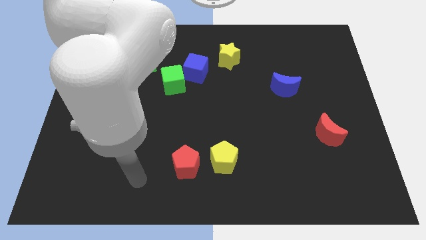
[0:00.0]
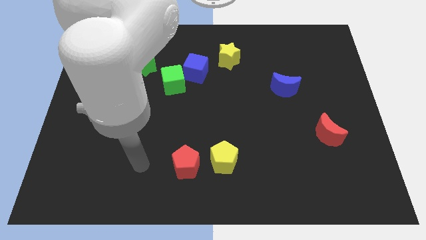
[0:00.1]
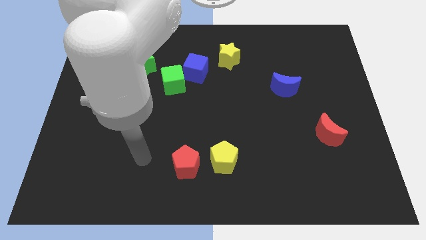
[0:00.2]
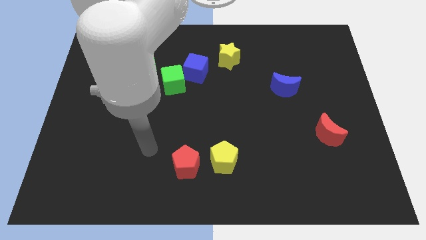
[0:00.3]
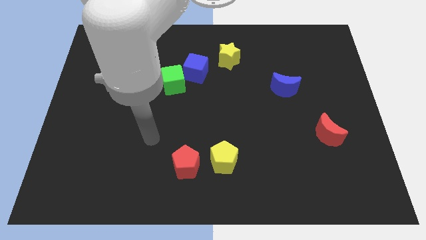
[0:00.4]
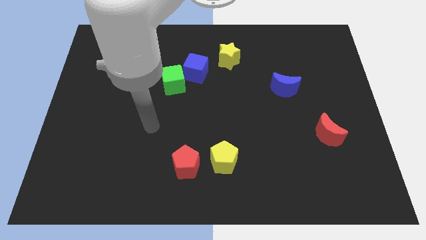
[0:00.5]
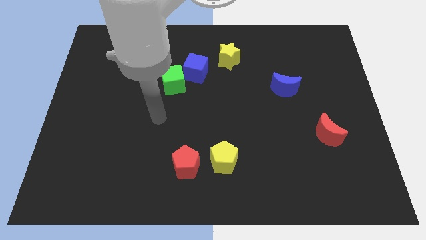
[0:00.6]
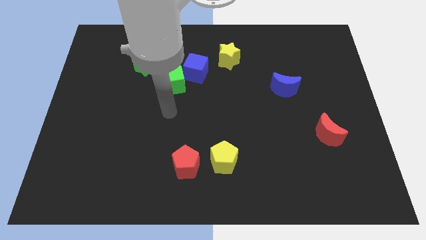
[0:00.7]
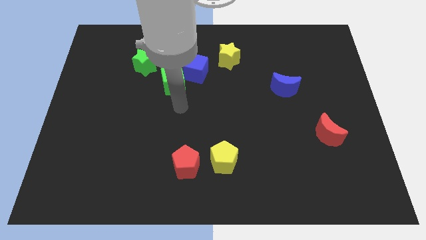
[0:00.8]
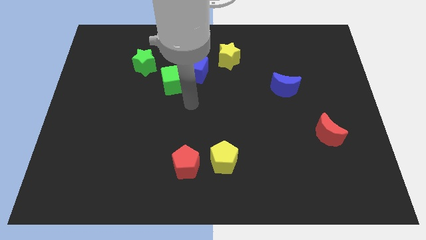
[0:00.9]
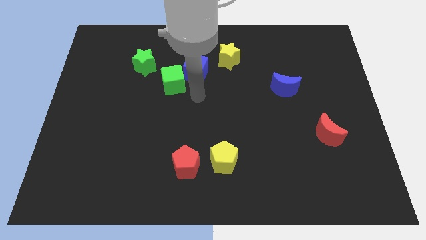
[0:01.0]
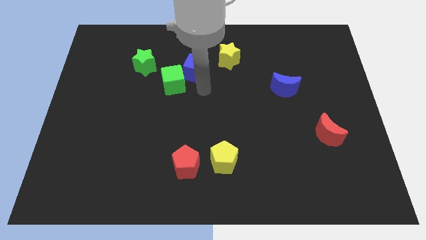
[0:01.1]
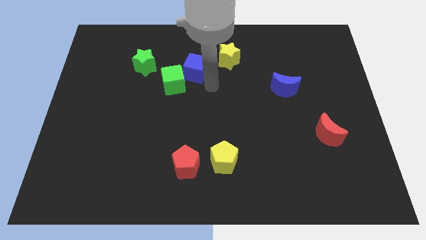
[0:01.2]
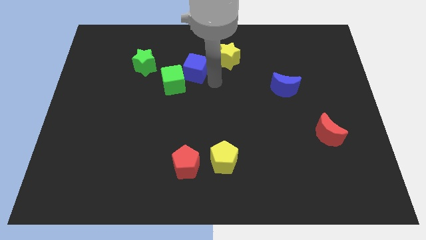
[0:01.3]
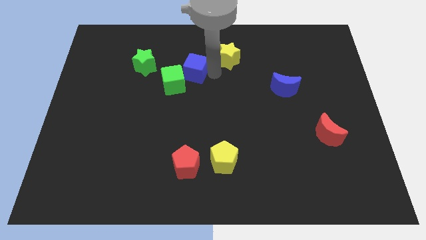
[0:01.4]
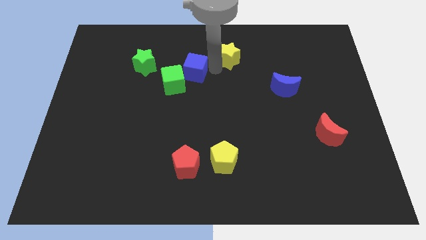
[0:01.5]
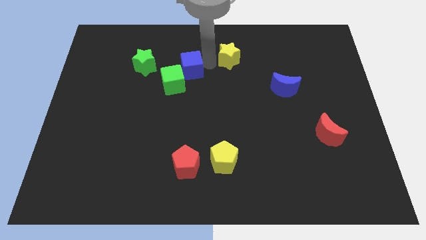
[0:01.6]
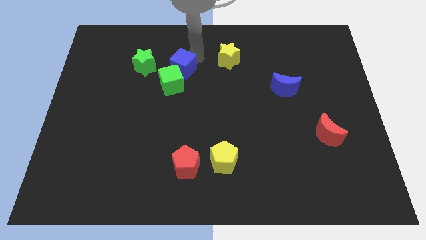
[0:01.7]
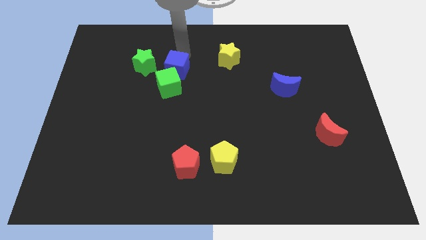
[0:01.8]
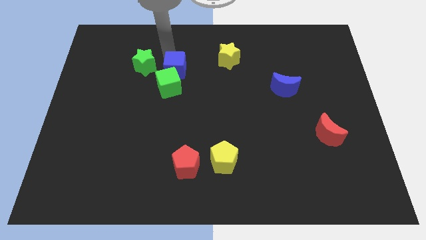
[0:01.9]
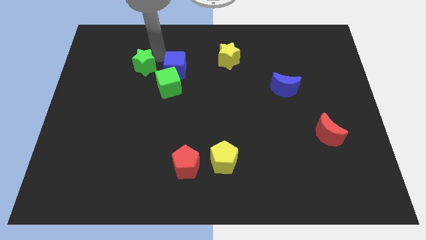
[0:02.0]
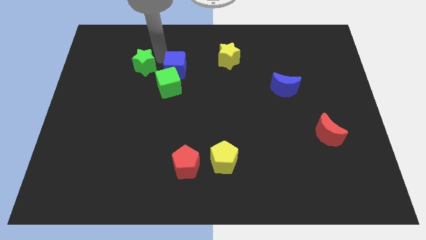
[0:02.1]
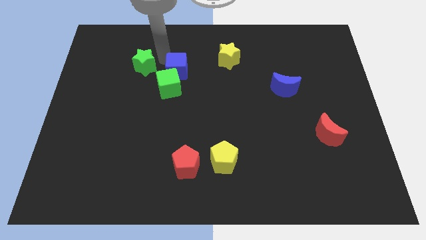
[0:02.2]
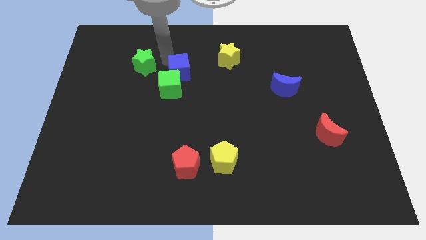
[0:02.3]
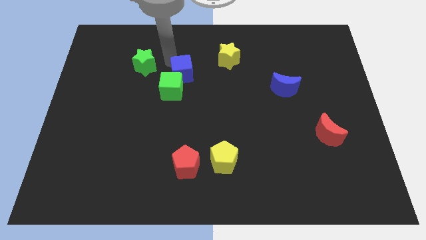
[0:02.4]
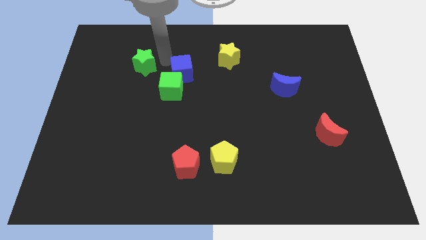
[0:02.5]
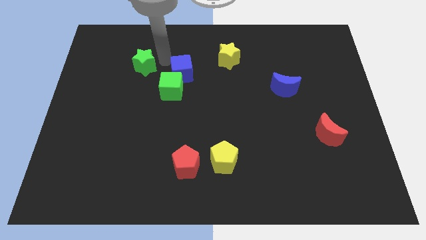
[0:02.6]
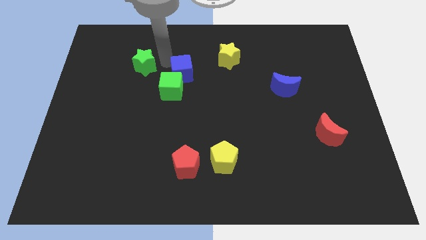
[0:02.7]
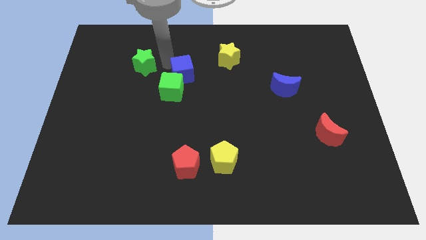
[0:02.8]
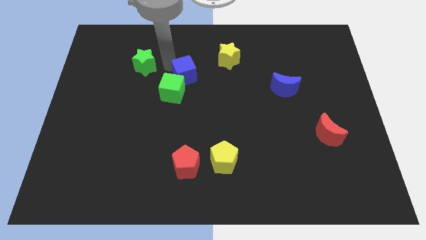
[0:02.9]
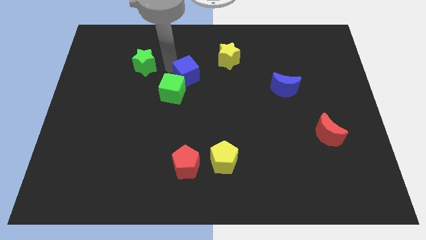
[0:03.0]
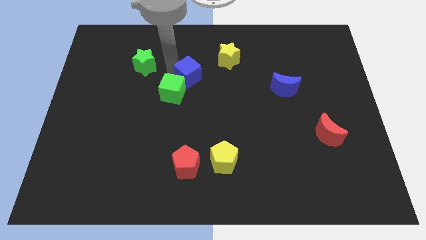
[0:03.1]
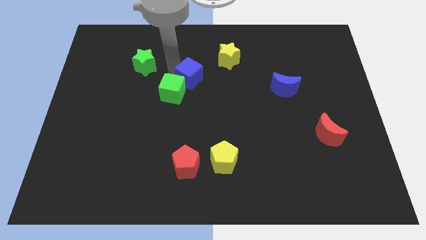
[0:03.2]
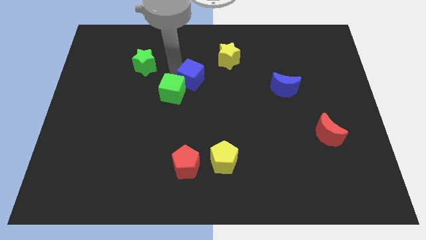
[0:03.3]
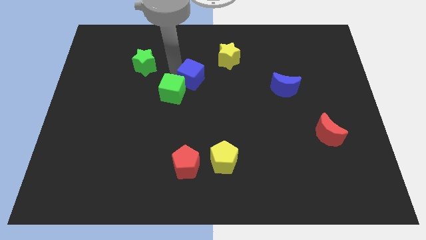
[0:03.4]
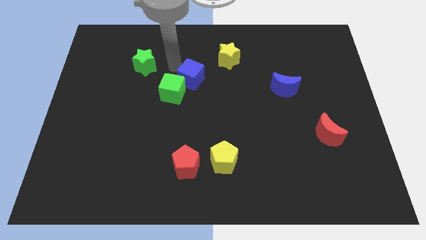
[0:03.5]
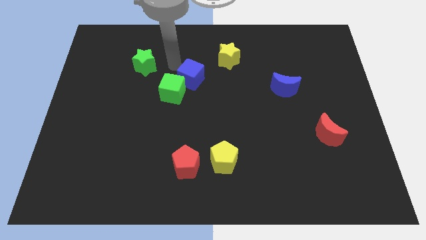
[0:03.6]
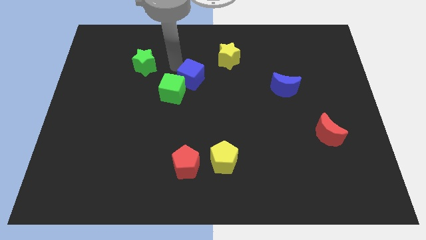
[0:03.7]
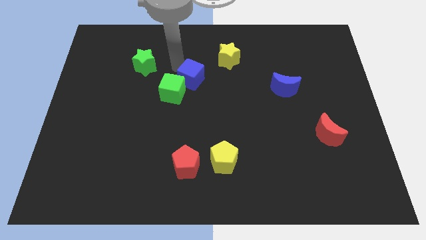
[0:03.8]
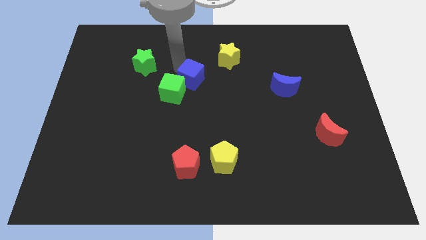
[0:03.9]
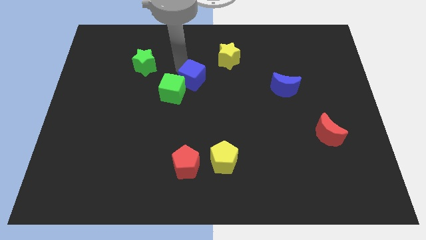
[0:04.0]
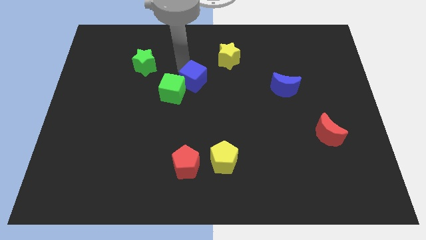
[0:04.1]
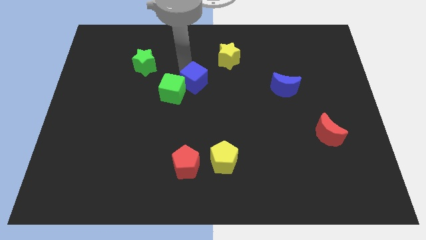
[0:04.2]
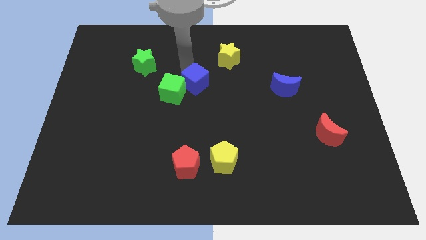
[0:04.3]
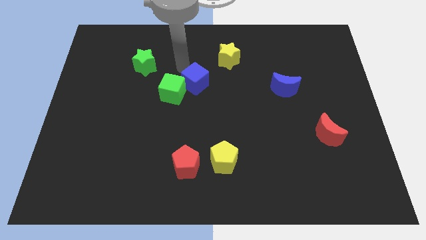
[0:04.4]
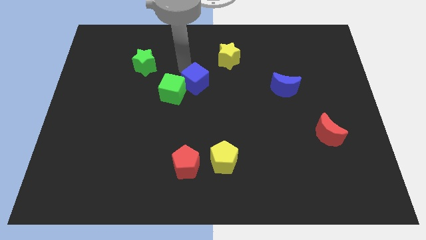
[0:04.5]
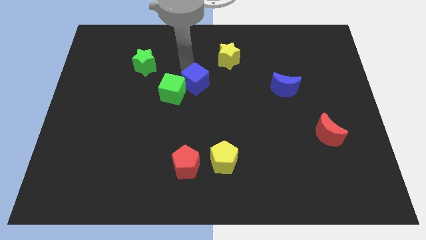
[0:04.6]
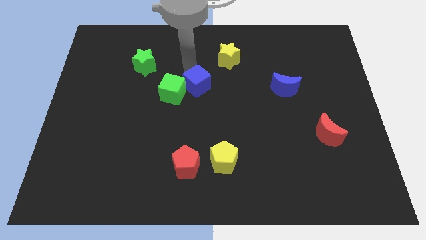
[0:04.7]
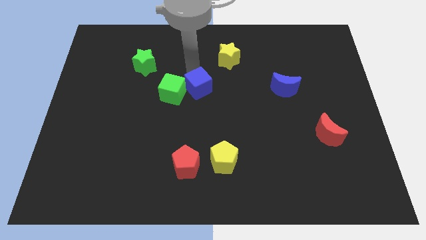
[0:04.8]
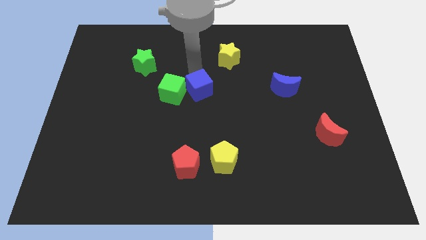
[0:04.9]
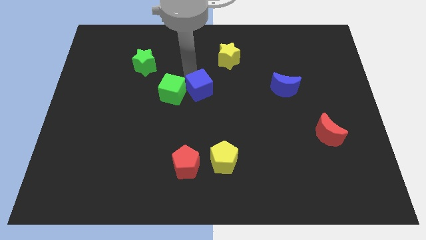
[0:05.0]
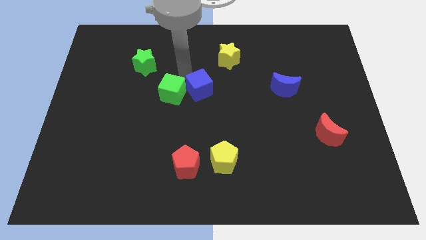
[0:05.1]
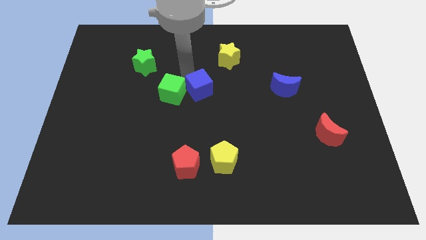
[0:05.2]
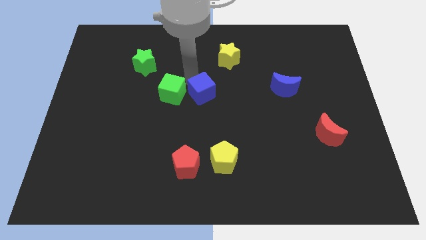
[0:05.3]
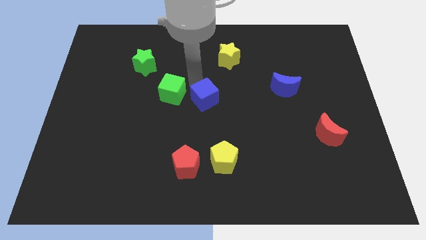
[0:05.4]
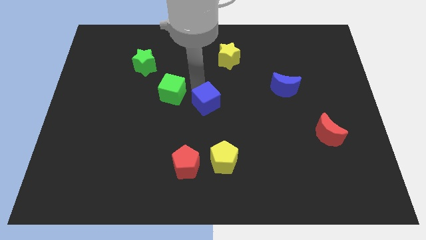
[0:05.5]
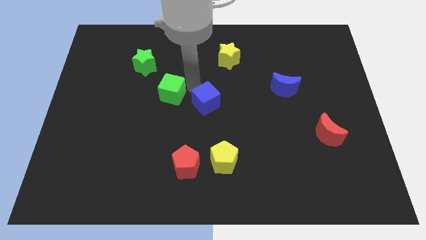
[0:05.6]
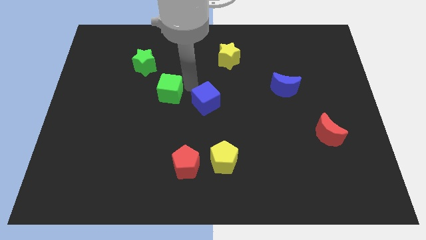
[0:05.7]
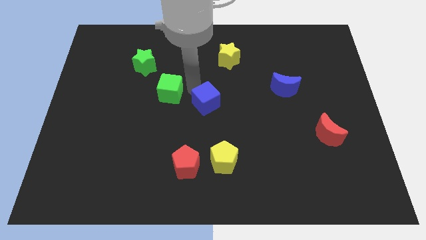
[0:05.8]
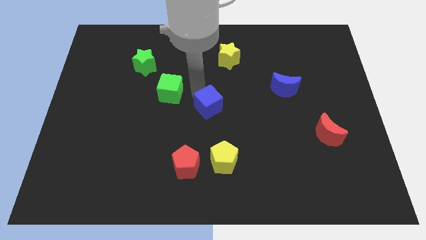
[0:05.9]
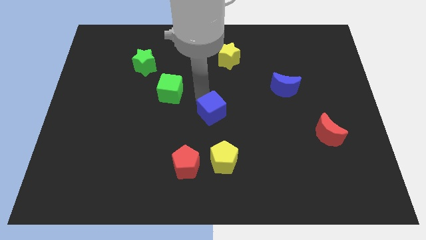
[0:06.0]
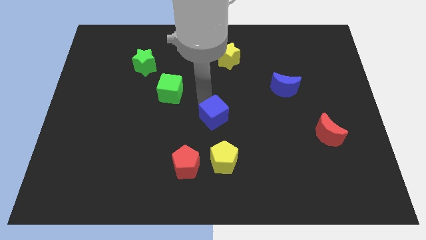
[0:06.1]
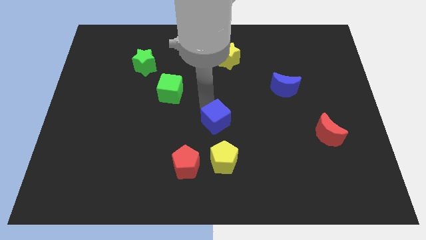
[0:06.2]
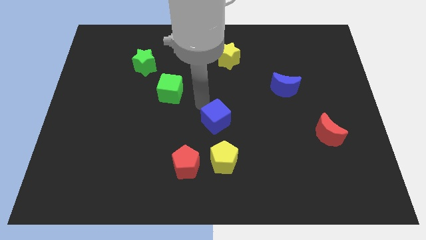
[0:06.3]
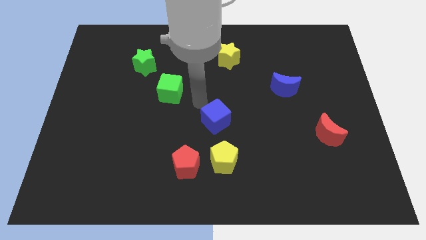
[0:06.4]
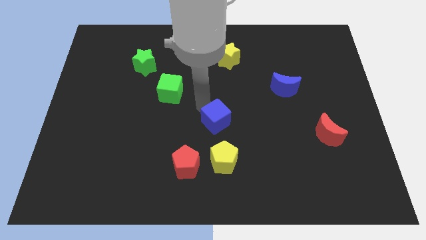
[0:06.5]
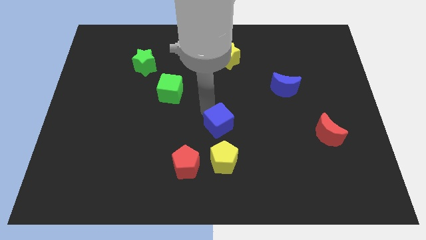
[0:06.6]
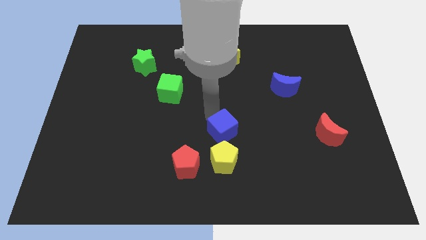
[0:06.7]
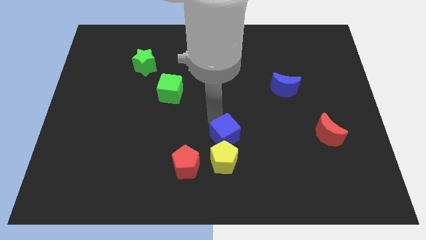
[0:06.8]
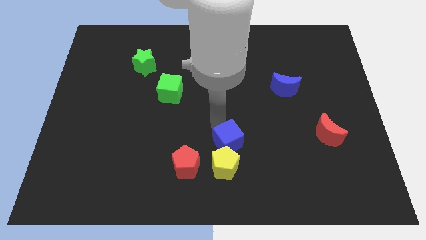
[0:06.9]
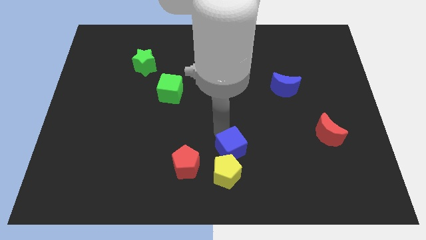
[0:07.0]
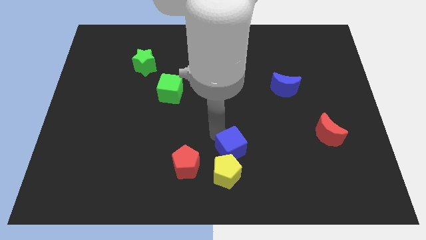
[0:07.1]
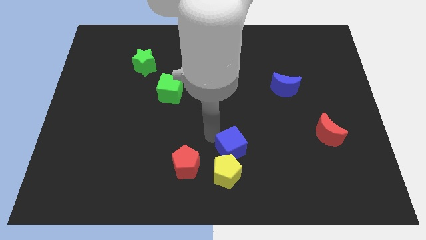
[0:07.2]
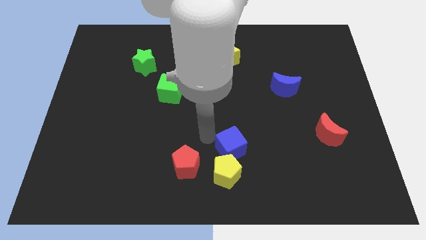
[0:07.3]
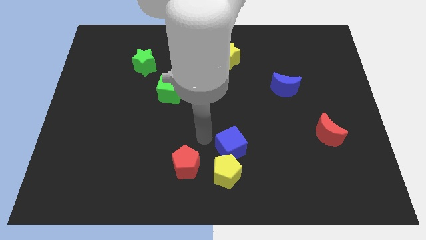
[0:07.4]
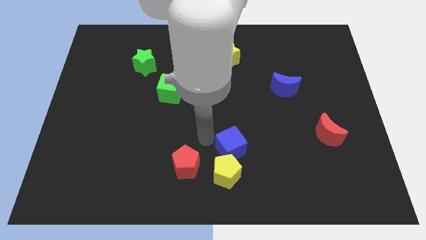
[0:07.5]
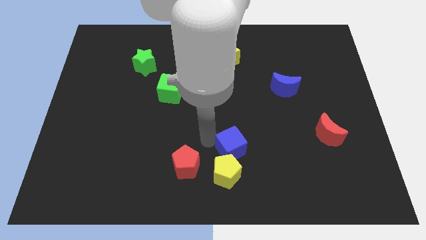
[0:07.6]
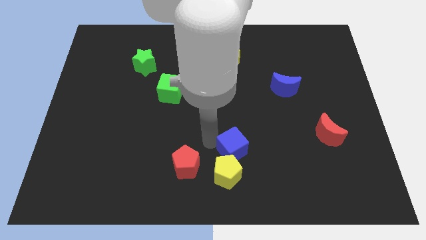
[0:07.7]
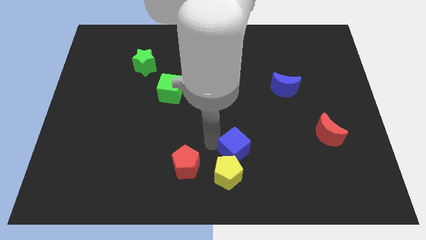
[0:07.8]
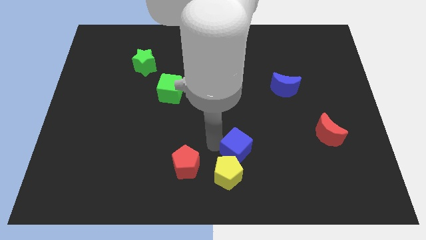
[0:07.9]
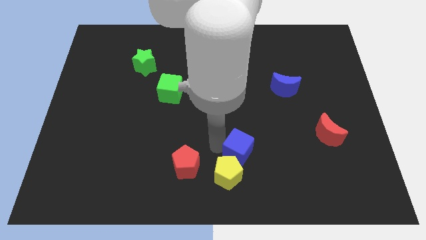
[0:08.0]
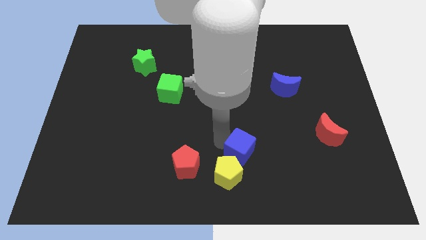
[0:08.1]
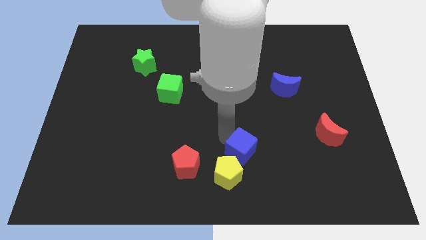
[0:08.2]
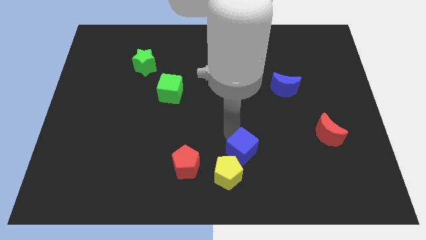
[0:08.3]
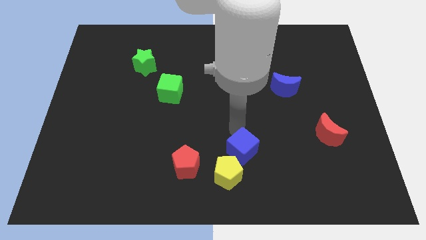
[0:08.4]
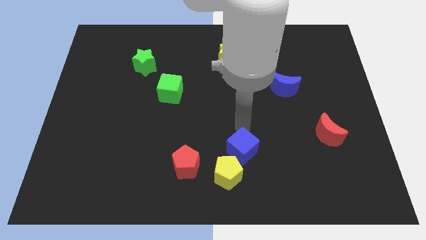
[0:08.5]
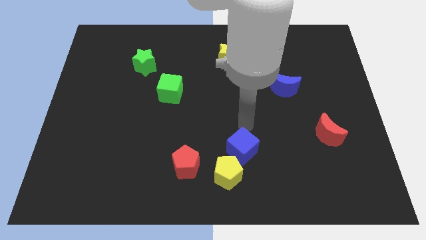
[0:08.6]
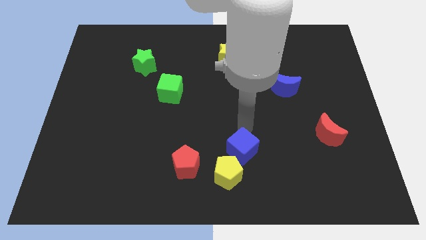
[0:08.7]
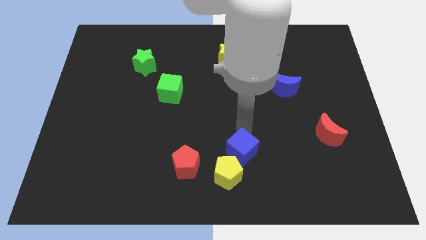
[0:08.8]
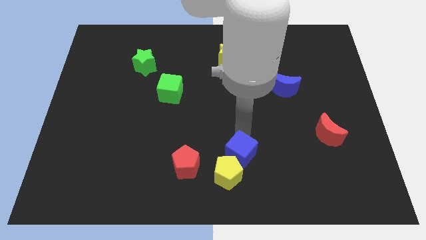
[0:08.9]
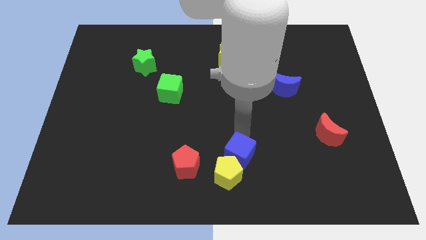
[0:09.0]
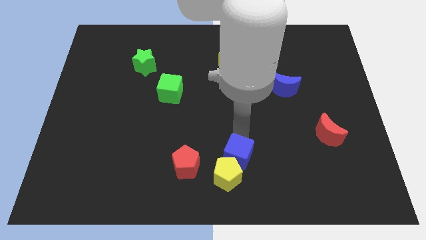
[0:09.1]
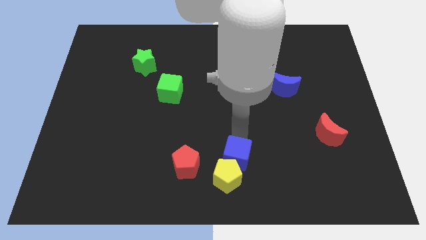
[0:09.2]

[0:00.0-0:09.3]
put the blue cube to the bottom
